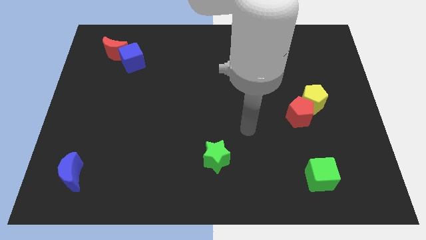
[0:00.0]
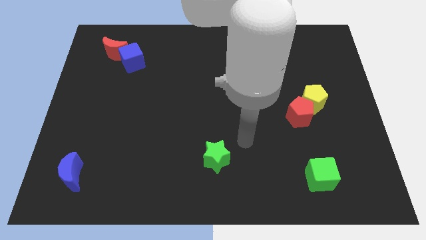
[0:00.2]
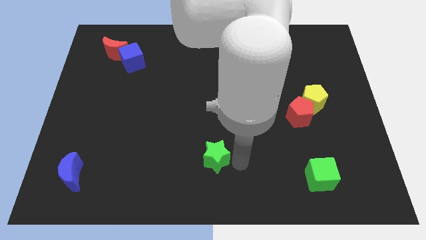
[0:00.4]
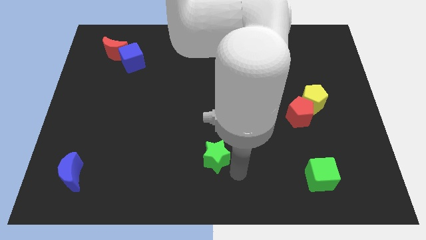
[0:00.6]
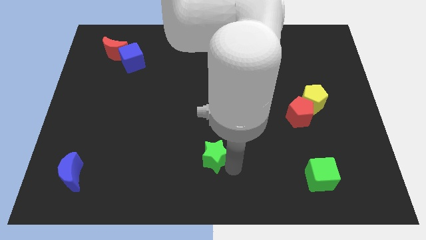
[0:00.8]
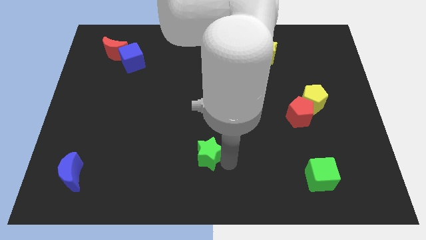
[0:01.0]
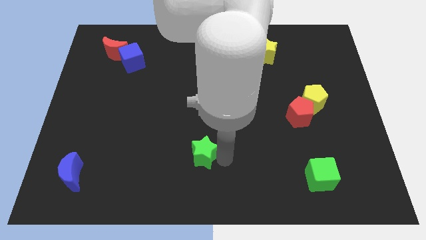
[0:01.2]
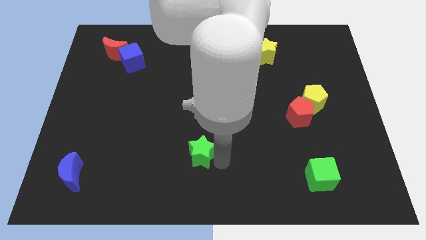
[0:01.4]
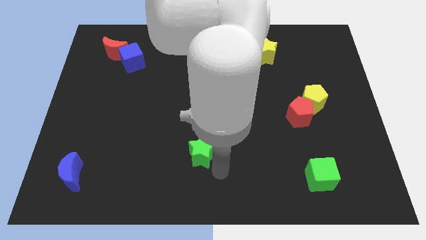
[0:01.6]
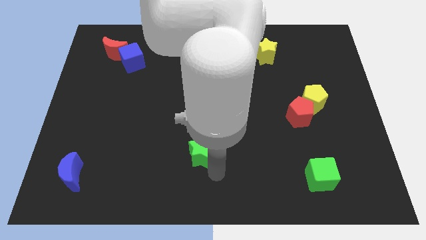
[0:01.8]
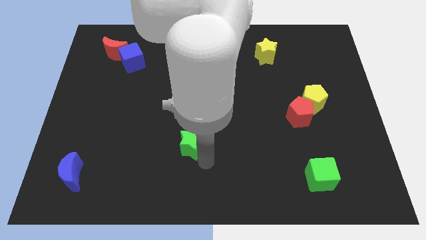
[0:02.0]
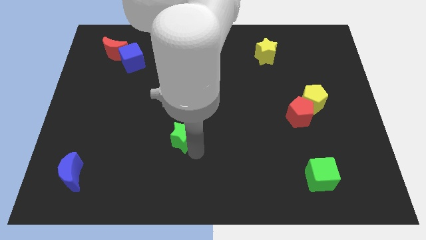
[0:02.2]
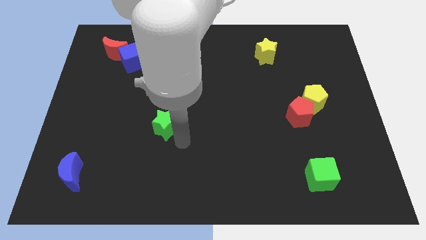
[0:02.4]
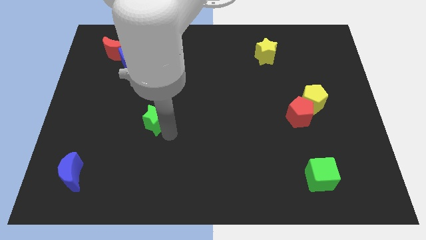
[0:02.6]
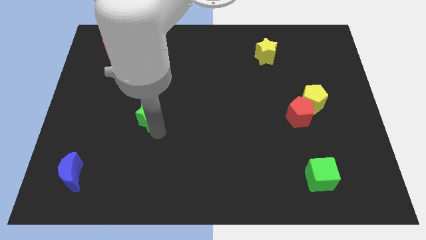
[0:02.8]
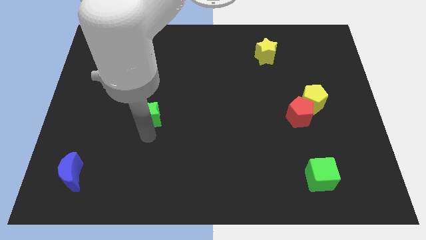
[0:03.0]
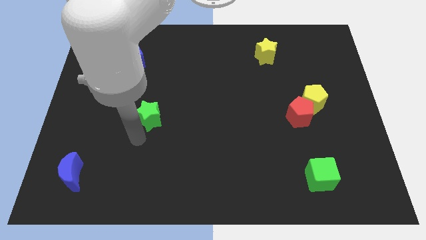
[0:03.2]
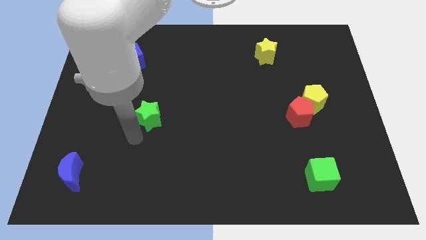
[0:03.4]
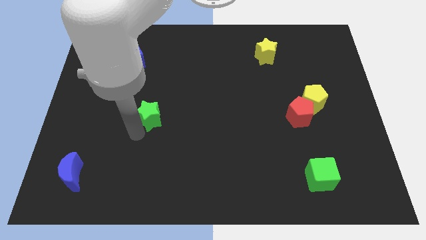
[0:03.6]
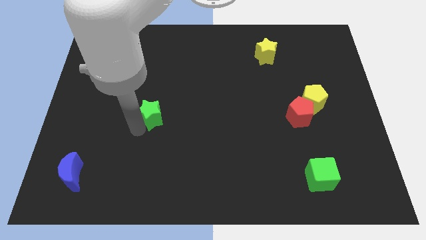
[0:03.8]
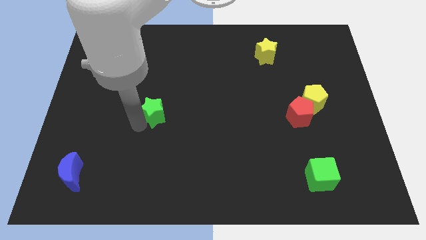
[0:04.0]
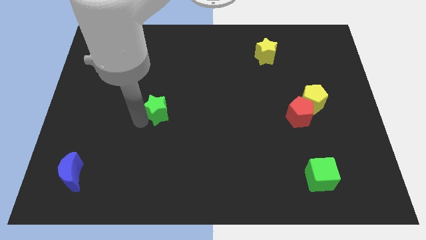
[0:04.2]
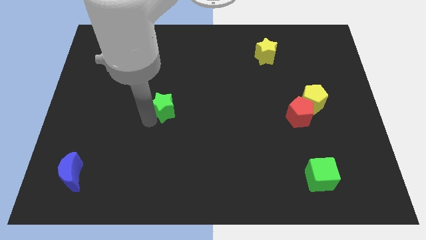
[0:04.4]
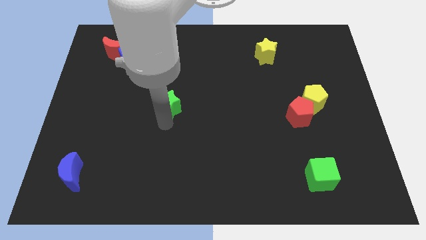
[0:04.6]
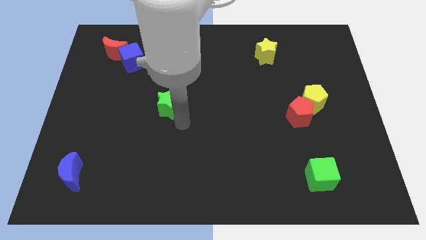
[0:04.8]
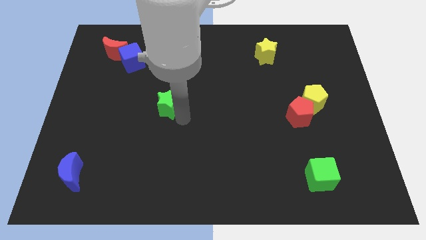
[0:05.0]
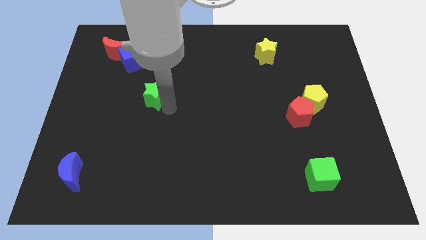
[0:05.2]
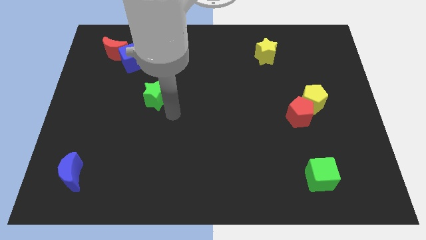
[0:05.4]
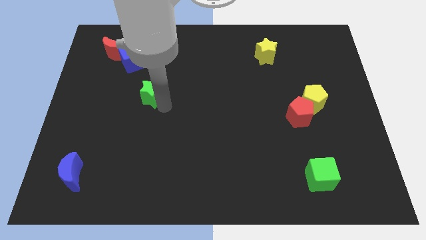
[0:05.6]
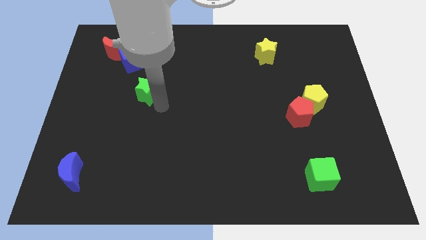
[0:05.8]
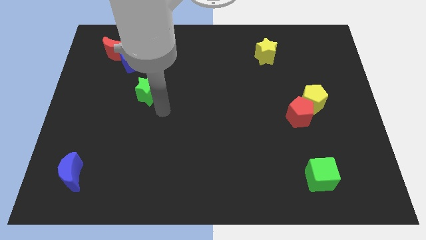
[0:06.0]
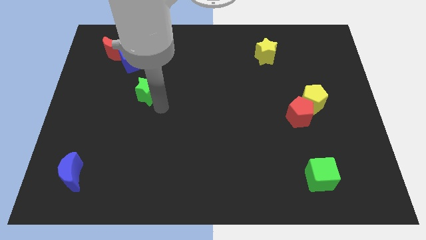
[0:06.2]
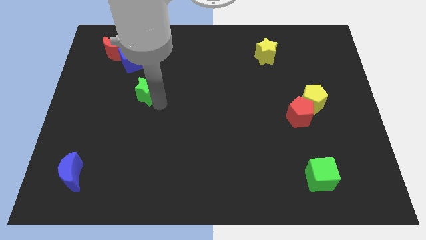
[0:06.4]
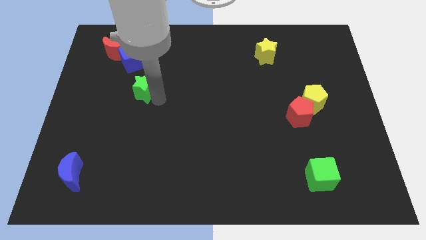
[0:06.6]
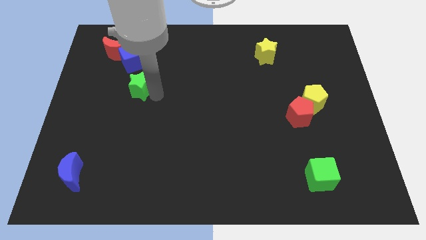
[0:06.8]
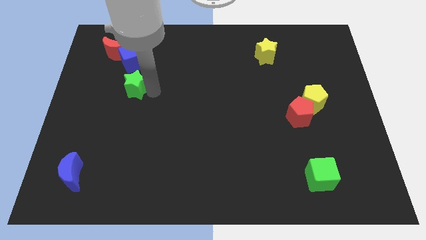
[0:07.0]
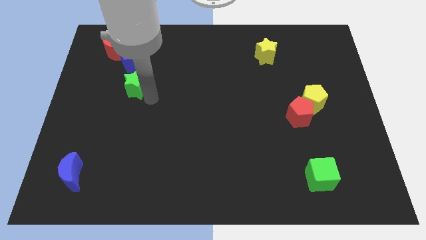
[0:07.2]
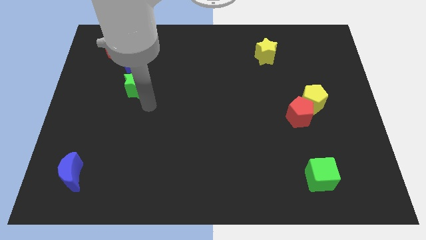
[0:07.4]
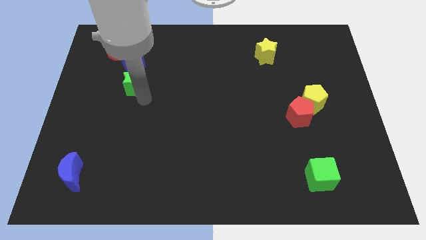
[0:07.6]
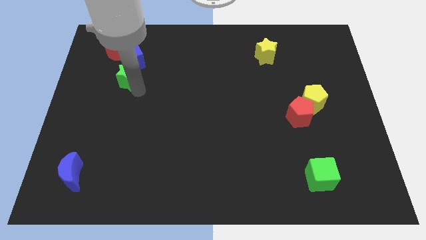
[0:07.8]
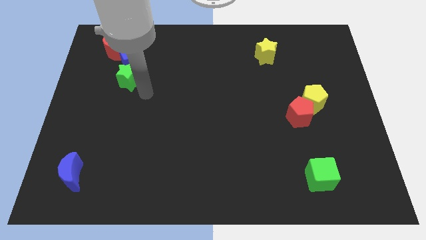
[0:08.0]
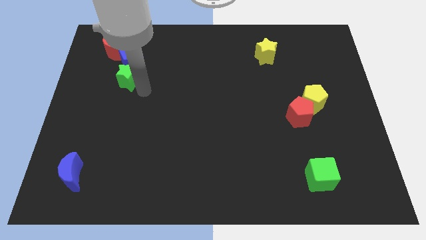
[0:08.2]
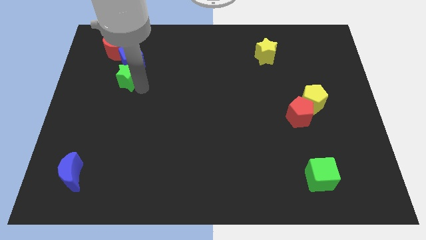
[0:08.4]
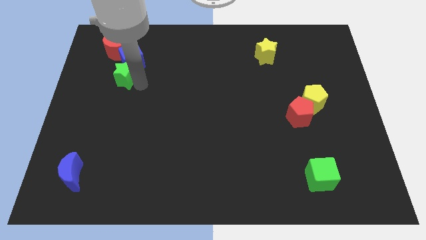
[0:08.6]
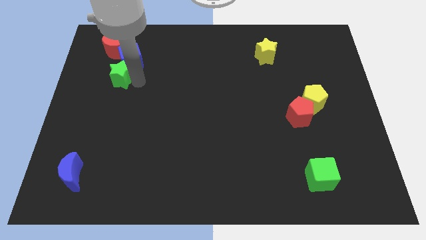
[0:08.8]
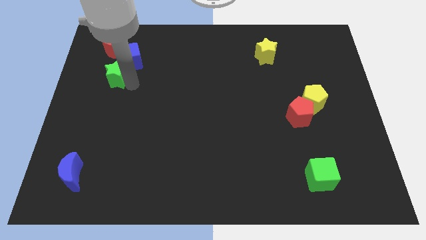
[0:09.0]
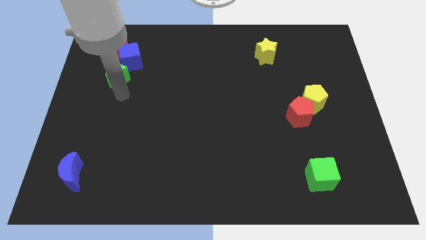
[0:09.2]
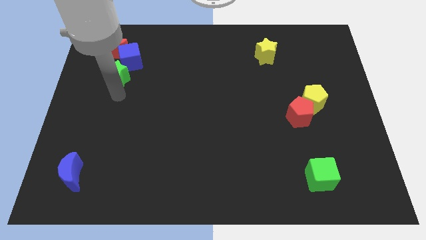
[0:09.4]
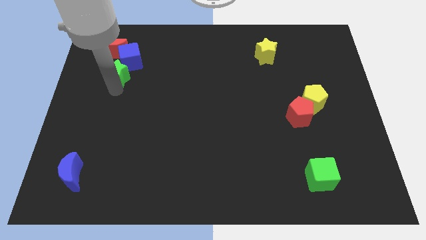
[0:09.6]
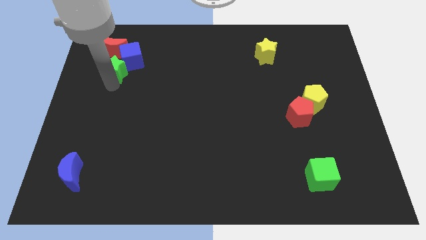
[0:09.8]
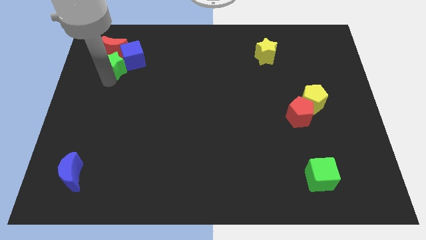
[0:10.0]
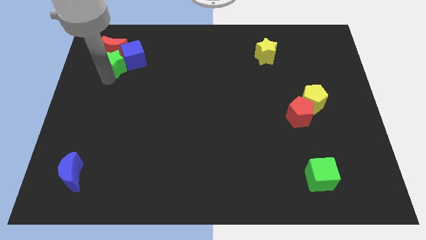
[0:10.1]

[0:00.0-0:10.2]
push the green star close to the red moon

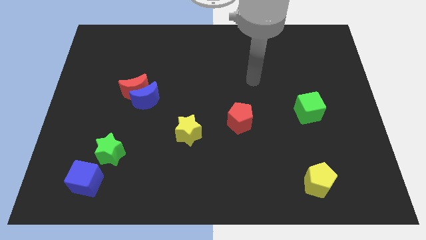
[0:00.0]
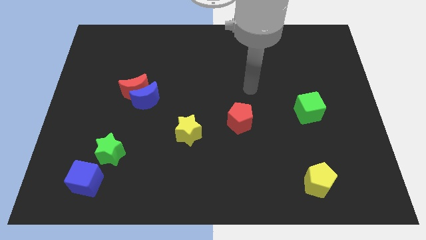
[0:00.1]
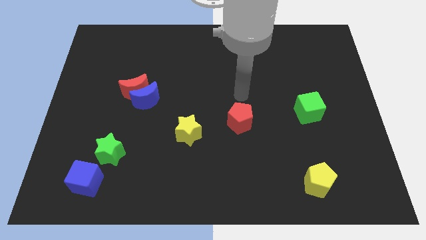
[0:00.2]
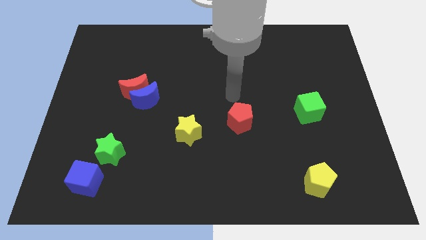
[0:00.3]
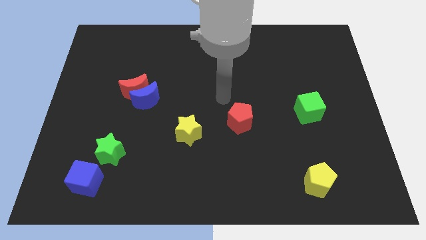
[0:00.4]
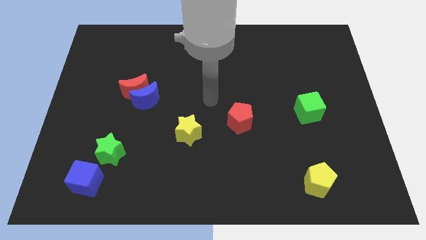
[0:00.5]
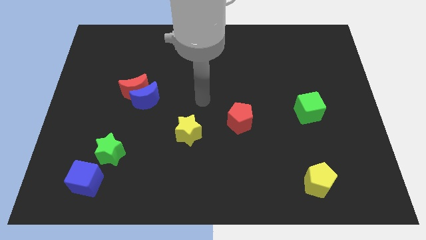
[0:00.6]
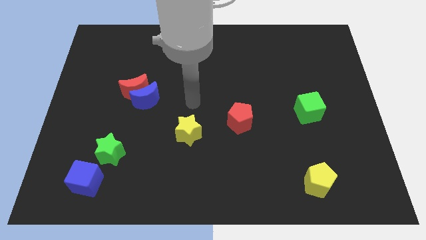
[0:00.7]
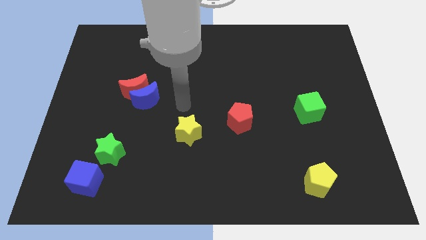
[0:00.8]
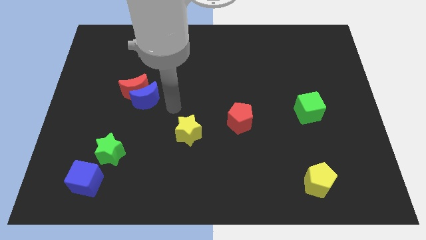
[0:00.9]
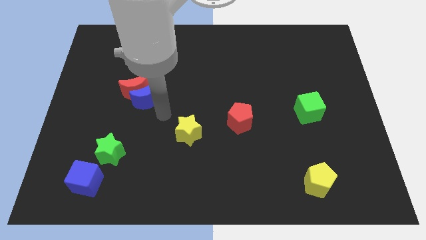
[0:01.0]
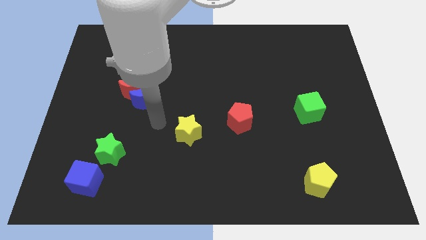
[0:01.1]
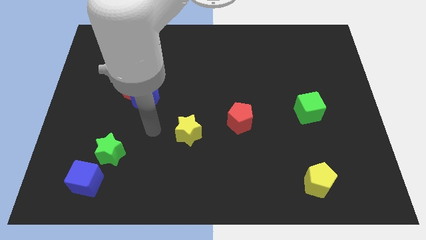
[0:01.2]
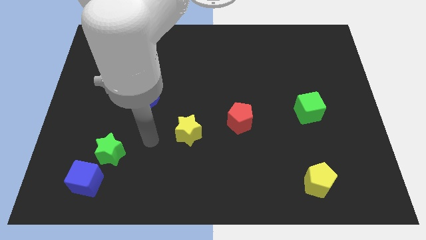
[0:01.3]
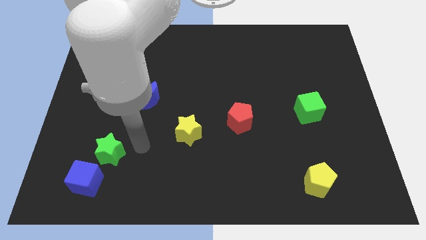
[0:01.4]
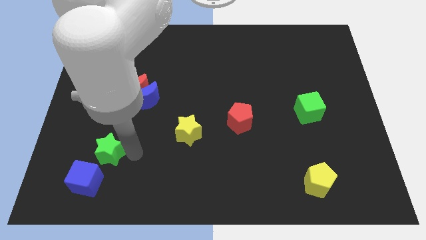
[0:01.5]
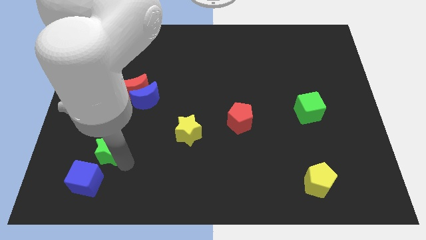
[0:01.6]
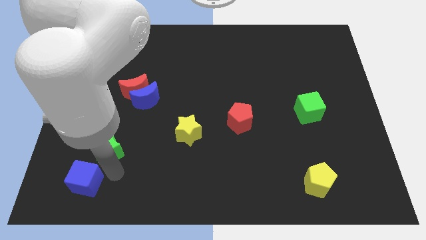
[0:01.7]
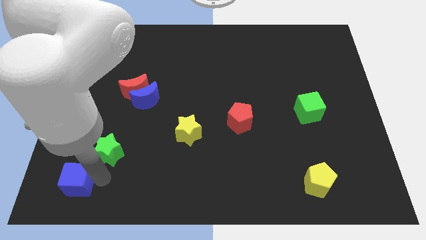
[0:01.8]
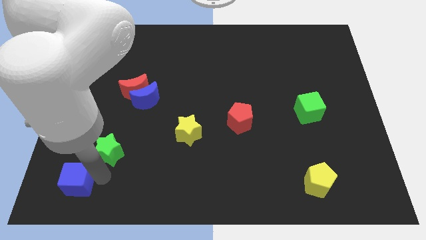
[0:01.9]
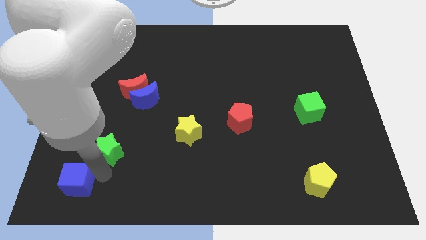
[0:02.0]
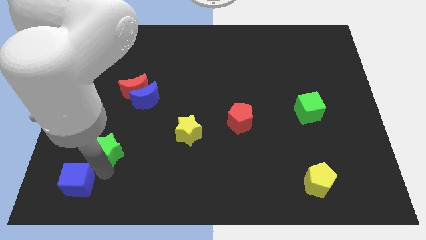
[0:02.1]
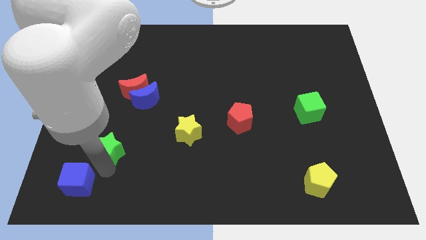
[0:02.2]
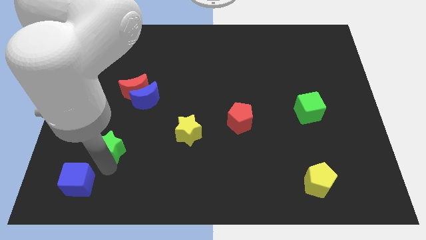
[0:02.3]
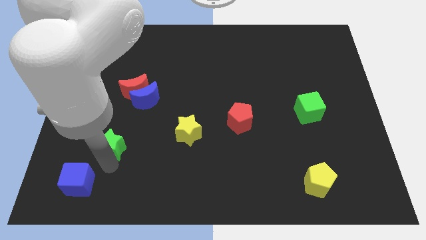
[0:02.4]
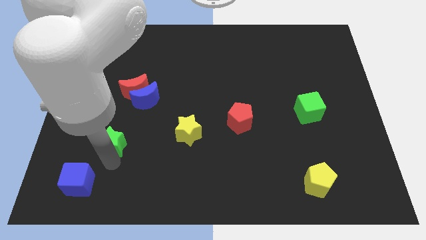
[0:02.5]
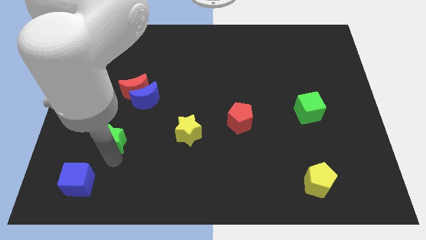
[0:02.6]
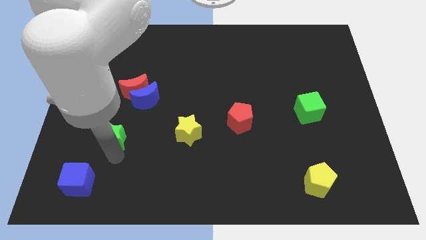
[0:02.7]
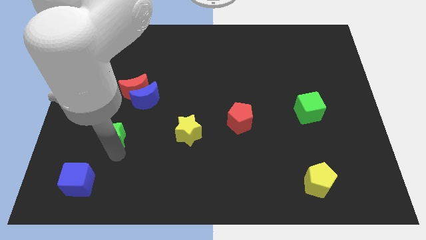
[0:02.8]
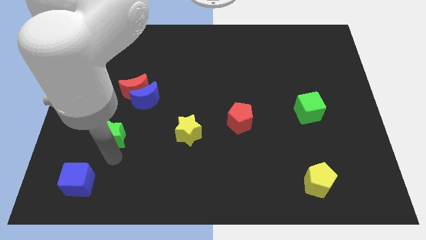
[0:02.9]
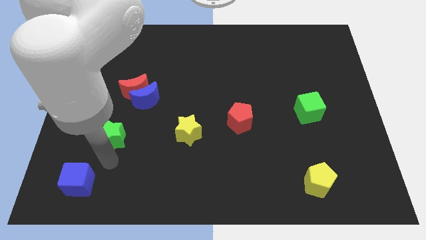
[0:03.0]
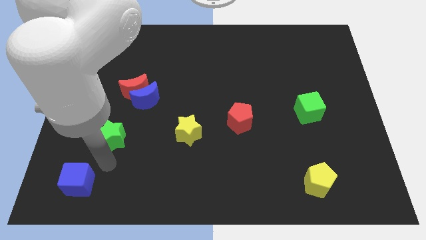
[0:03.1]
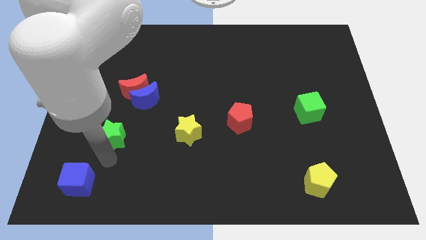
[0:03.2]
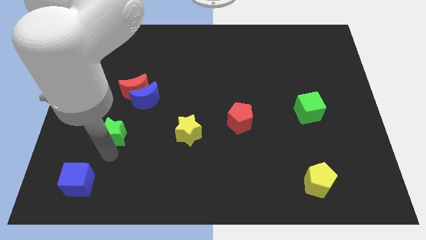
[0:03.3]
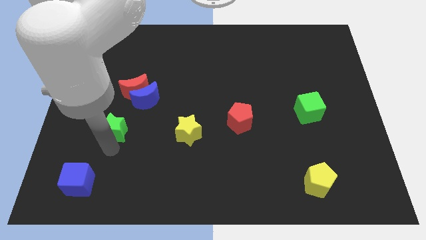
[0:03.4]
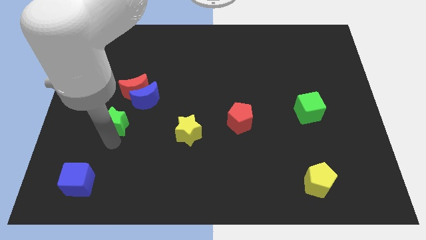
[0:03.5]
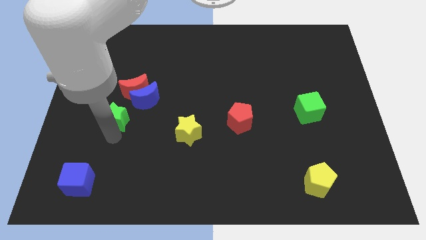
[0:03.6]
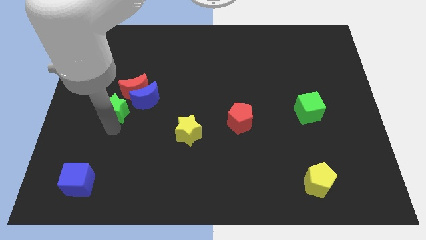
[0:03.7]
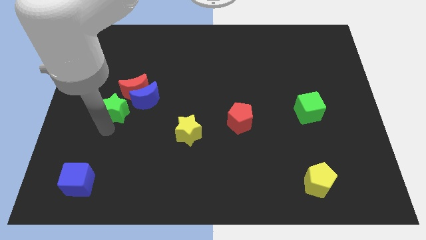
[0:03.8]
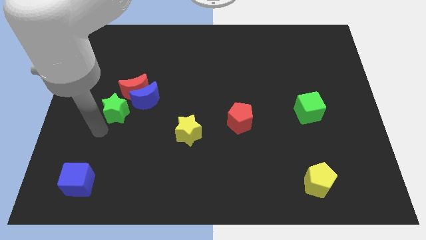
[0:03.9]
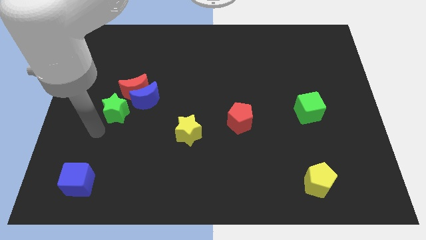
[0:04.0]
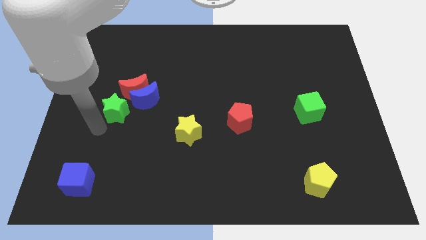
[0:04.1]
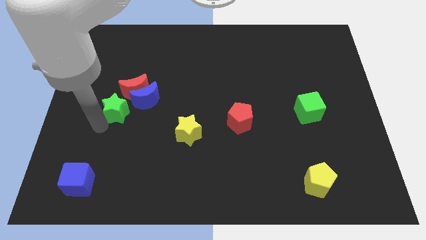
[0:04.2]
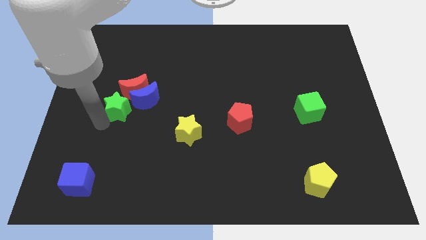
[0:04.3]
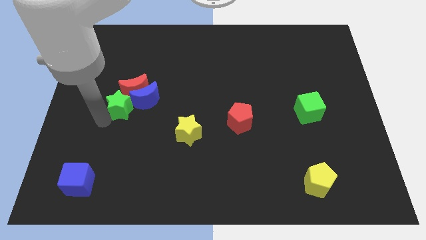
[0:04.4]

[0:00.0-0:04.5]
put the green star next to the red moon
